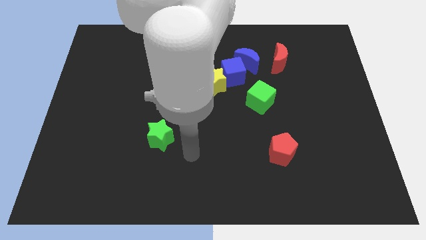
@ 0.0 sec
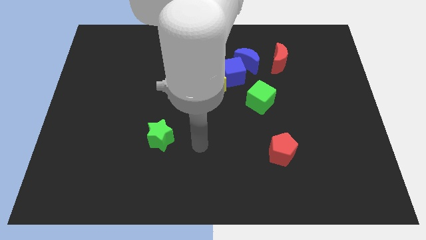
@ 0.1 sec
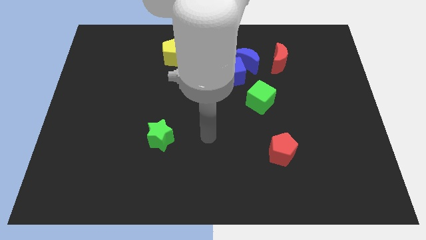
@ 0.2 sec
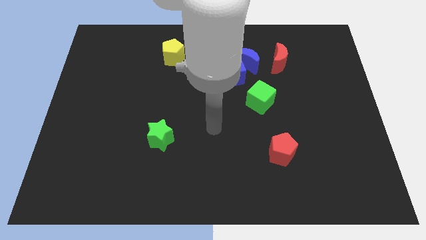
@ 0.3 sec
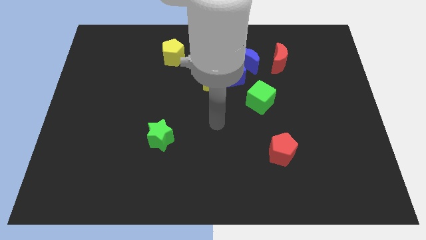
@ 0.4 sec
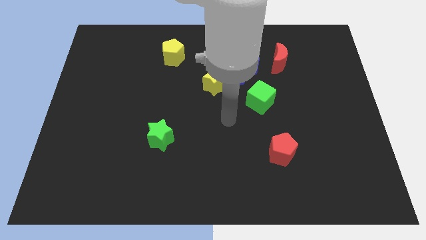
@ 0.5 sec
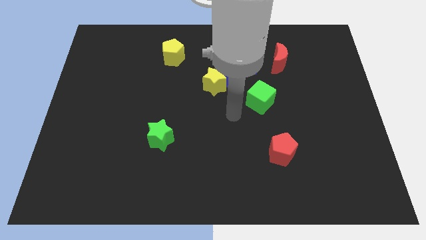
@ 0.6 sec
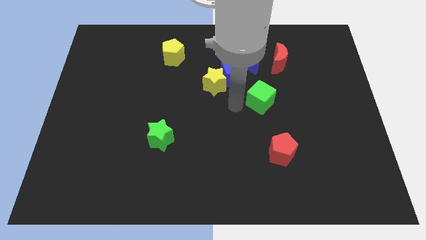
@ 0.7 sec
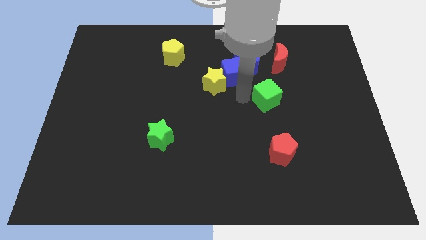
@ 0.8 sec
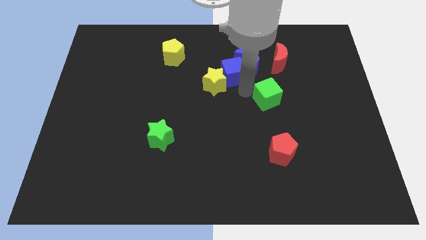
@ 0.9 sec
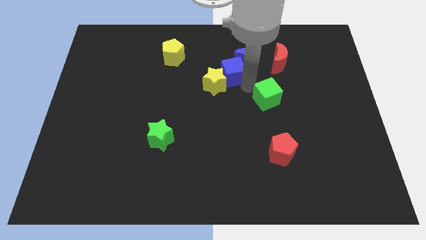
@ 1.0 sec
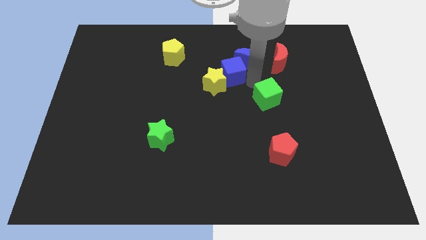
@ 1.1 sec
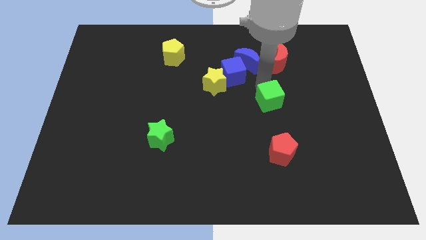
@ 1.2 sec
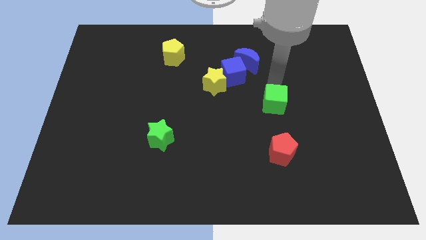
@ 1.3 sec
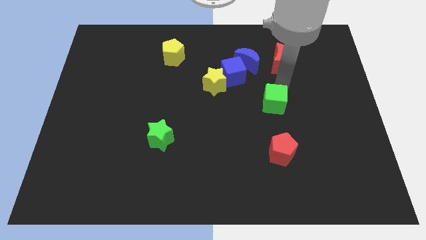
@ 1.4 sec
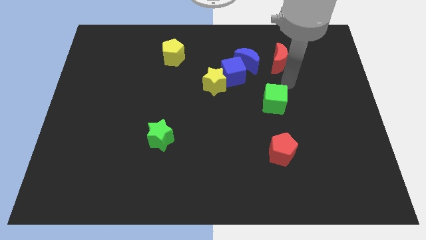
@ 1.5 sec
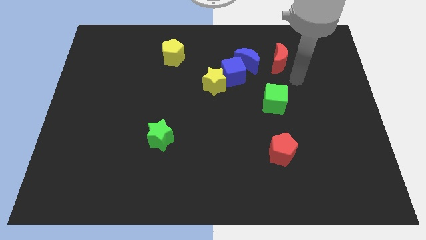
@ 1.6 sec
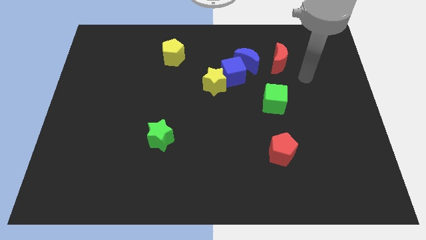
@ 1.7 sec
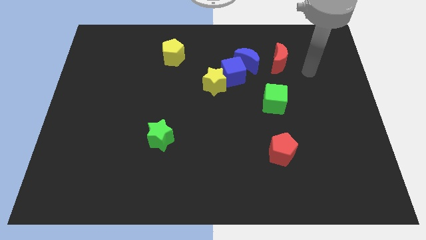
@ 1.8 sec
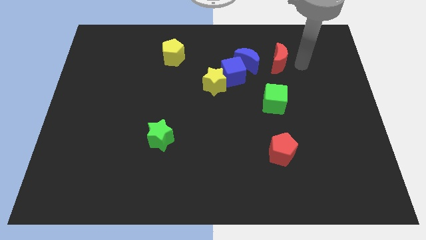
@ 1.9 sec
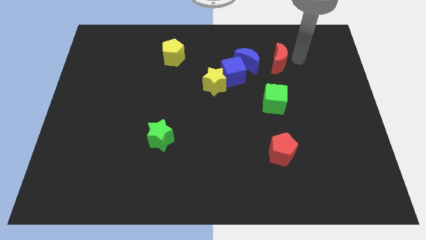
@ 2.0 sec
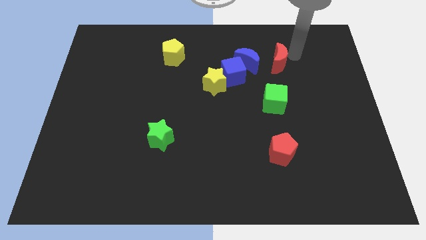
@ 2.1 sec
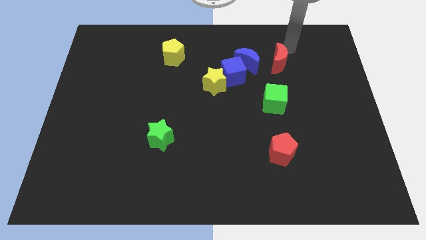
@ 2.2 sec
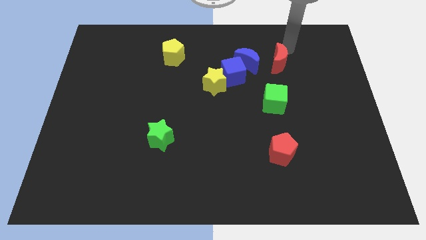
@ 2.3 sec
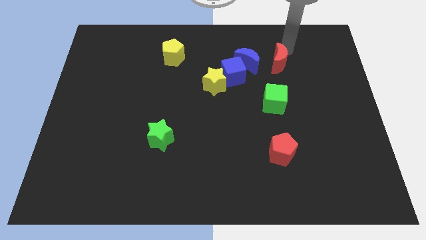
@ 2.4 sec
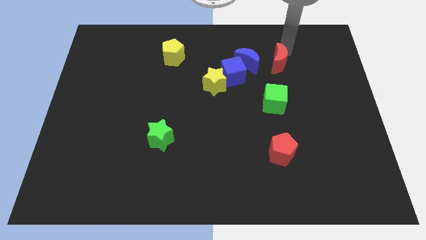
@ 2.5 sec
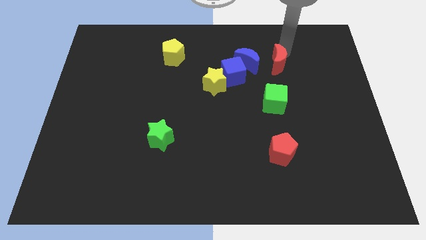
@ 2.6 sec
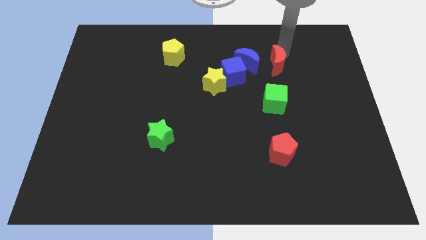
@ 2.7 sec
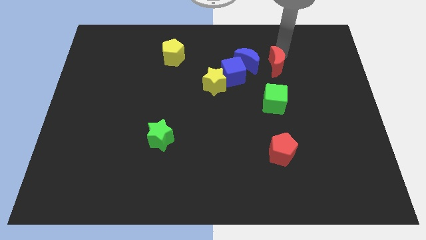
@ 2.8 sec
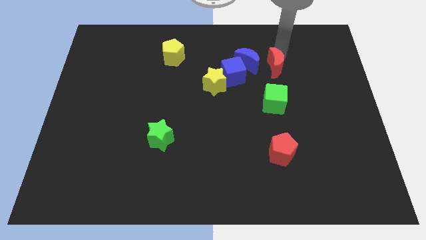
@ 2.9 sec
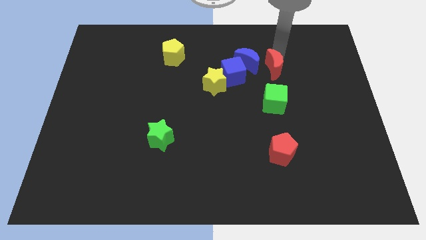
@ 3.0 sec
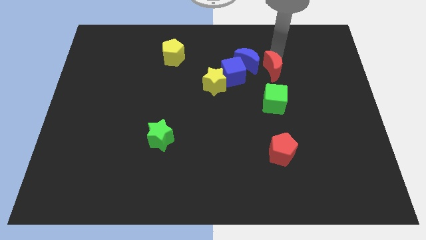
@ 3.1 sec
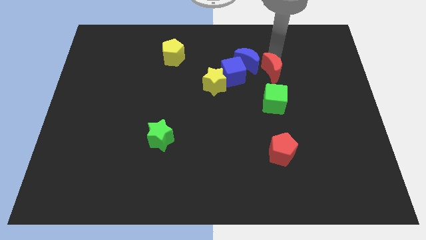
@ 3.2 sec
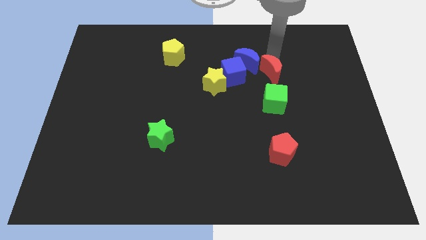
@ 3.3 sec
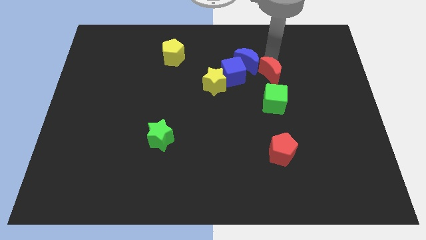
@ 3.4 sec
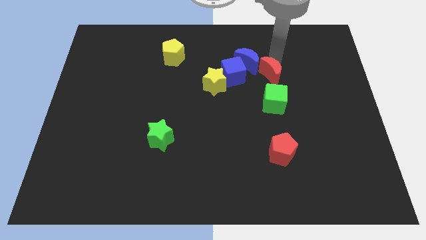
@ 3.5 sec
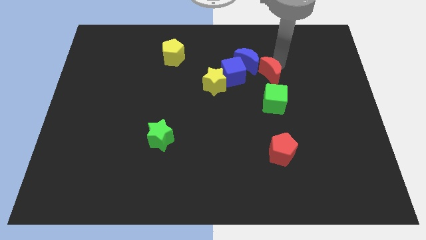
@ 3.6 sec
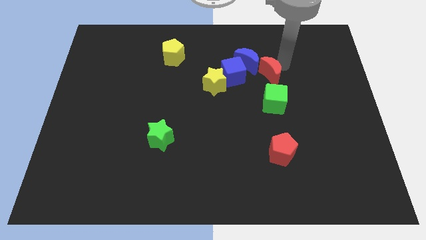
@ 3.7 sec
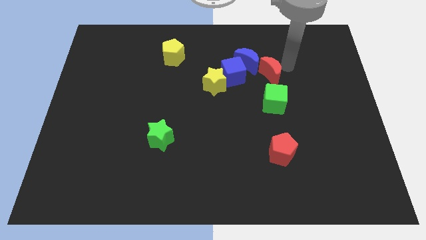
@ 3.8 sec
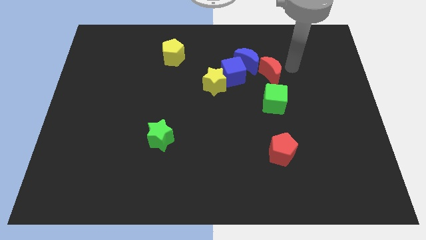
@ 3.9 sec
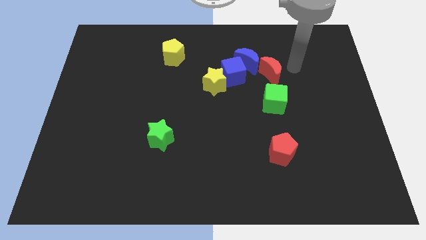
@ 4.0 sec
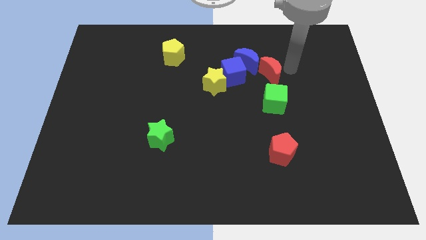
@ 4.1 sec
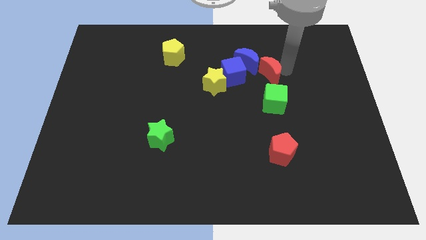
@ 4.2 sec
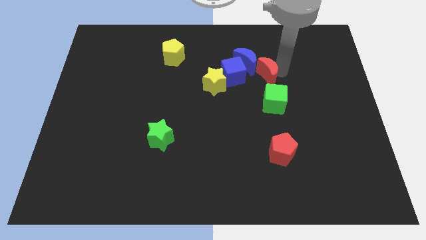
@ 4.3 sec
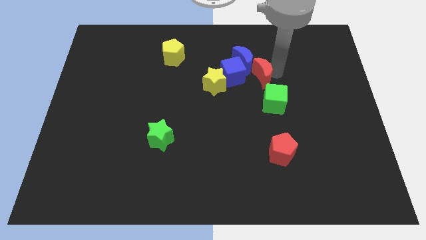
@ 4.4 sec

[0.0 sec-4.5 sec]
push the red moon slightly diagonally down and left

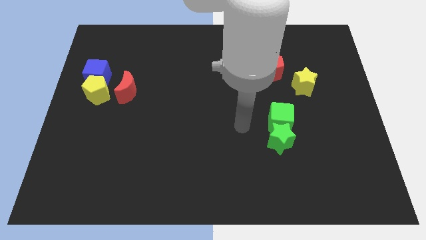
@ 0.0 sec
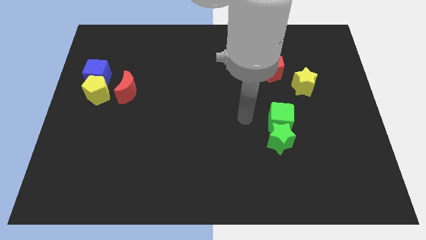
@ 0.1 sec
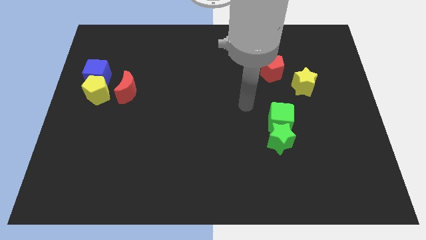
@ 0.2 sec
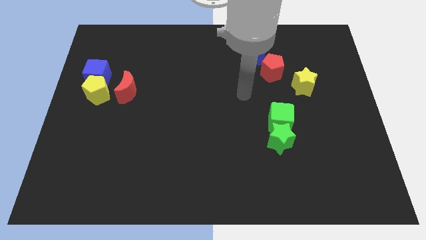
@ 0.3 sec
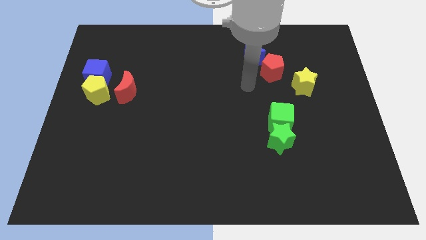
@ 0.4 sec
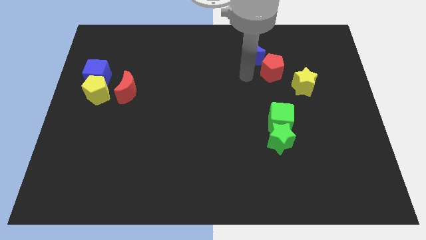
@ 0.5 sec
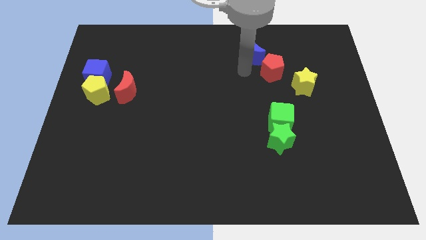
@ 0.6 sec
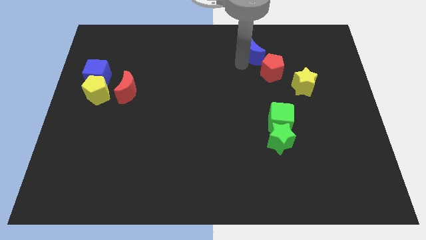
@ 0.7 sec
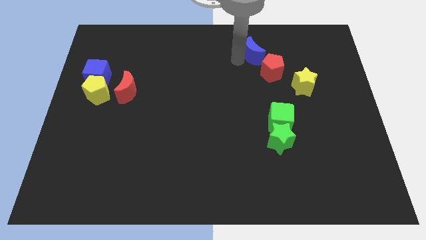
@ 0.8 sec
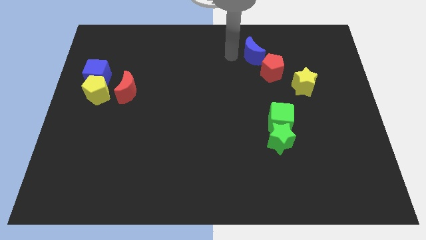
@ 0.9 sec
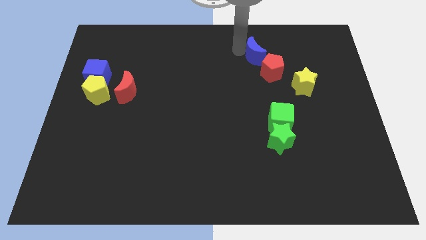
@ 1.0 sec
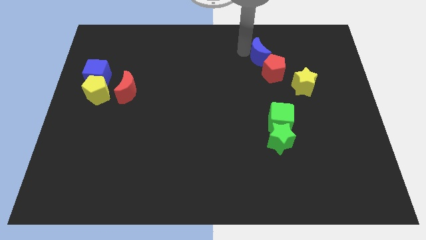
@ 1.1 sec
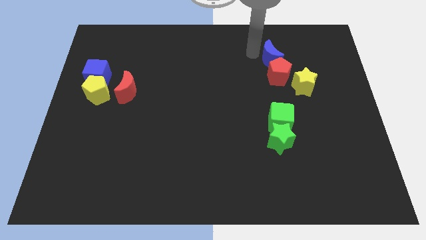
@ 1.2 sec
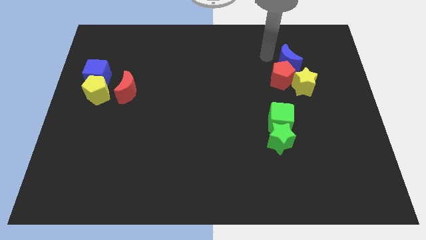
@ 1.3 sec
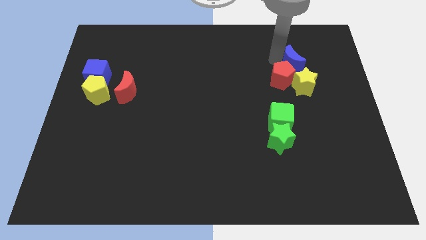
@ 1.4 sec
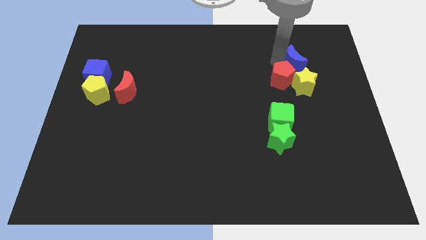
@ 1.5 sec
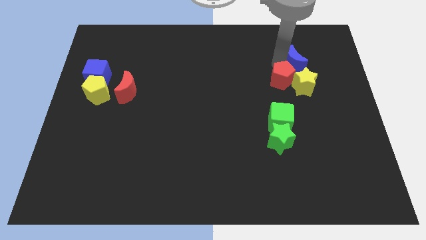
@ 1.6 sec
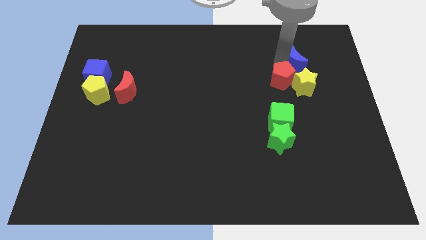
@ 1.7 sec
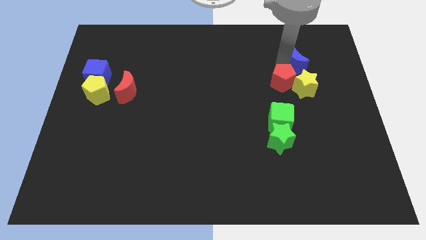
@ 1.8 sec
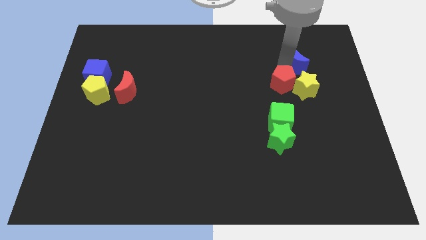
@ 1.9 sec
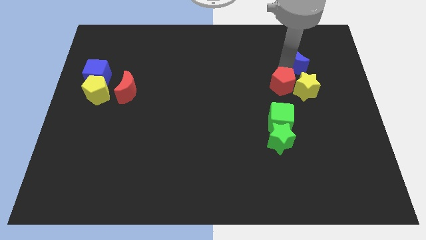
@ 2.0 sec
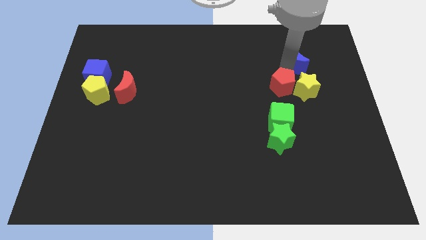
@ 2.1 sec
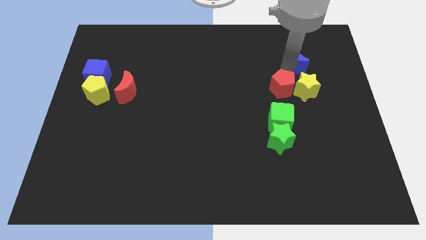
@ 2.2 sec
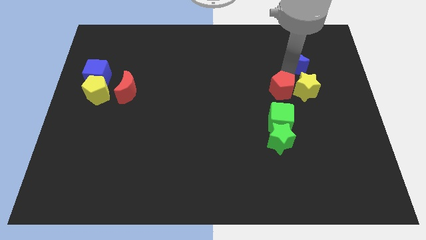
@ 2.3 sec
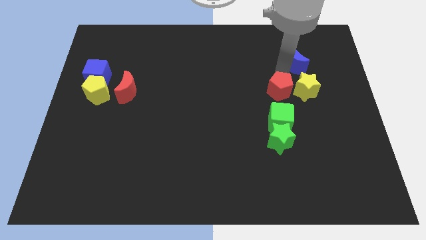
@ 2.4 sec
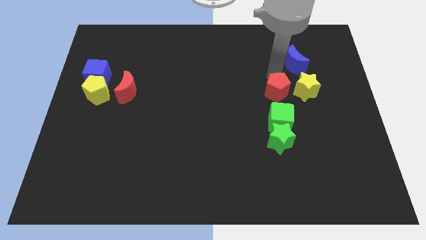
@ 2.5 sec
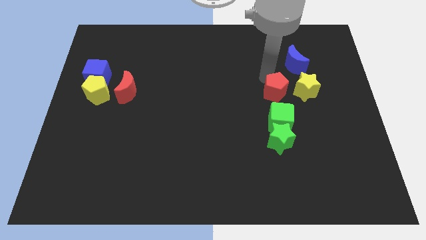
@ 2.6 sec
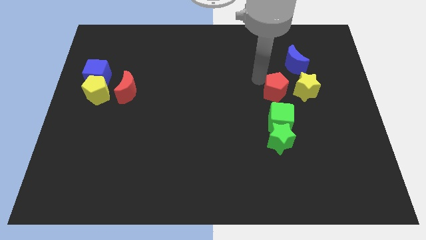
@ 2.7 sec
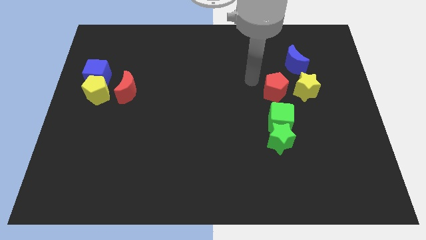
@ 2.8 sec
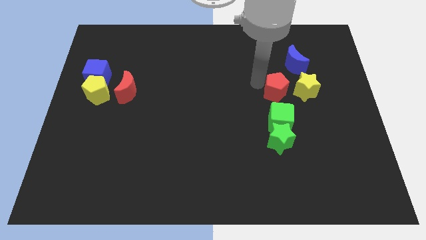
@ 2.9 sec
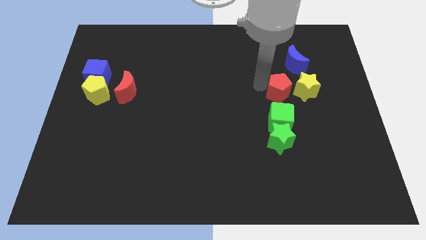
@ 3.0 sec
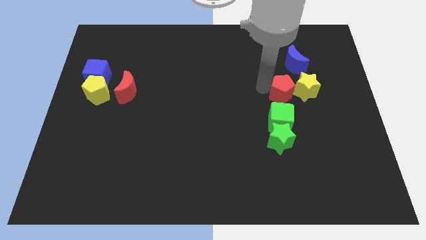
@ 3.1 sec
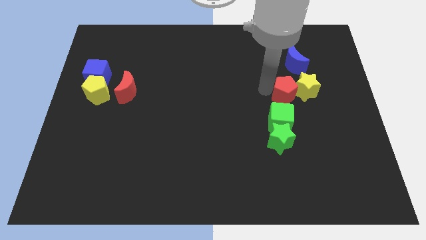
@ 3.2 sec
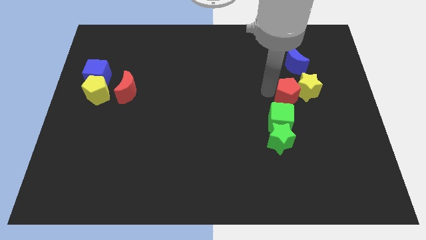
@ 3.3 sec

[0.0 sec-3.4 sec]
push the red pentagon downwards and right diagonally a little
